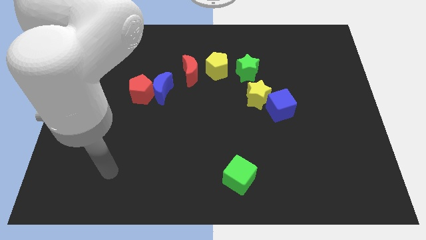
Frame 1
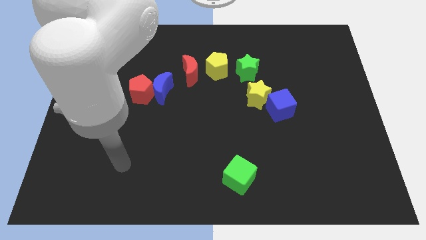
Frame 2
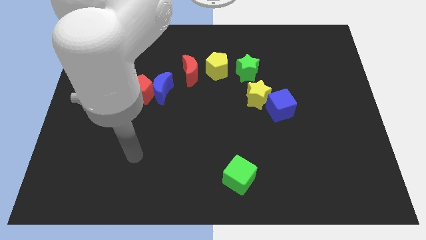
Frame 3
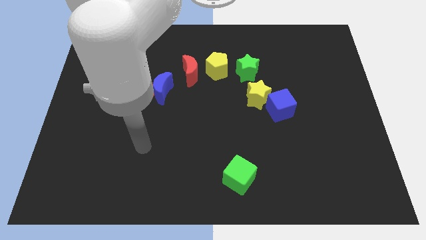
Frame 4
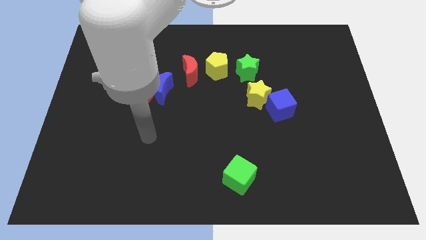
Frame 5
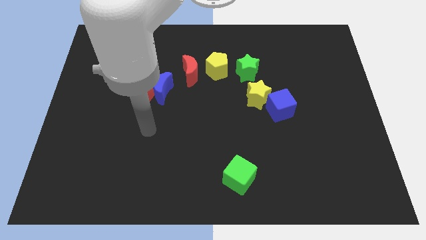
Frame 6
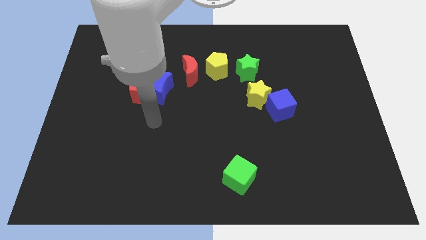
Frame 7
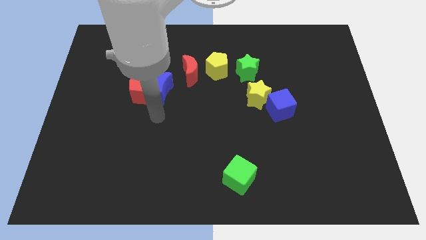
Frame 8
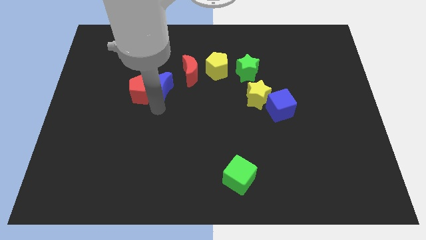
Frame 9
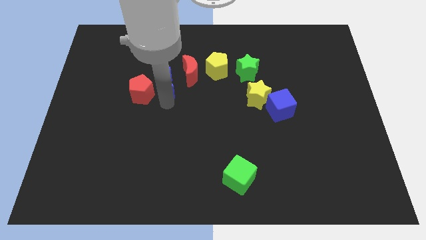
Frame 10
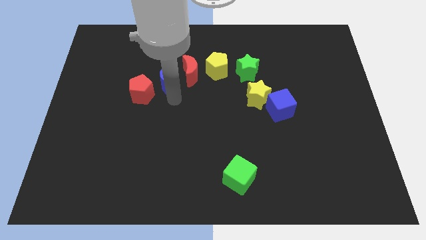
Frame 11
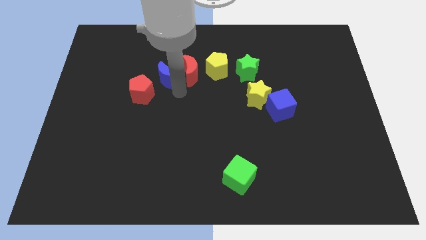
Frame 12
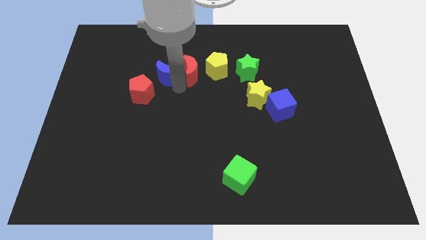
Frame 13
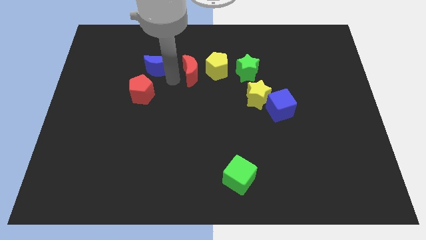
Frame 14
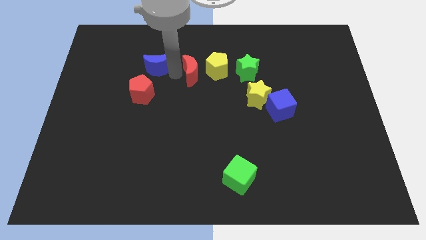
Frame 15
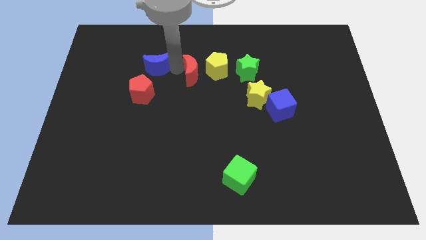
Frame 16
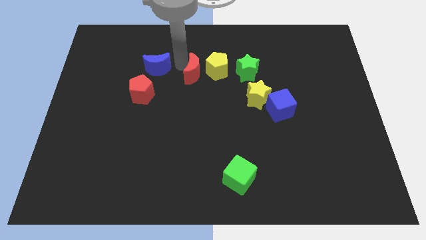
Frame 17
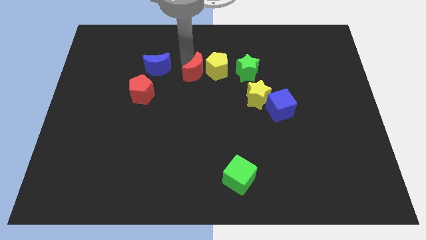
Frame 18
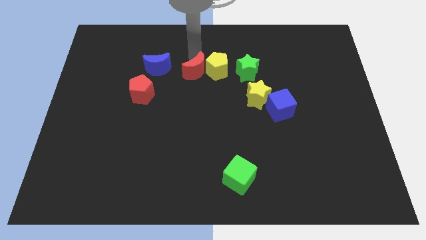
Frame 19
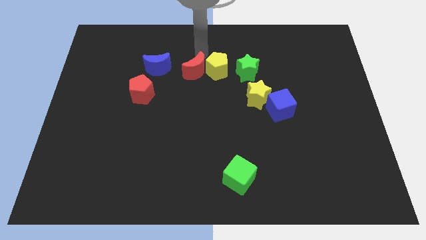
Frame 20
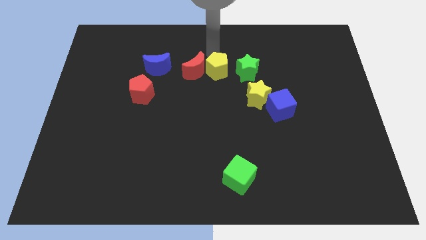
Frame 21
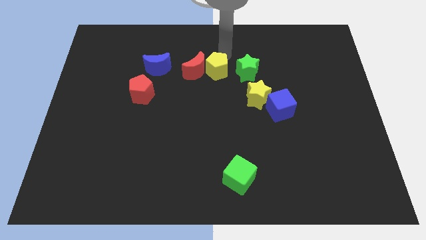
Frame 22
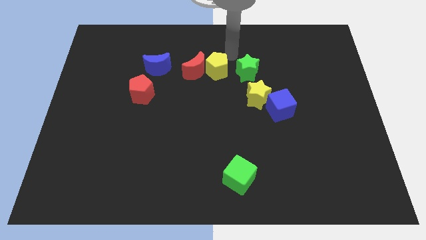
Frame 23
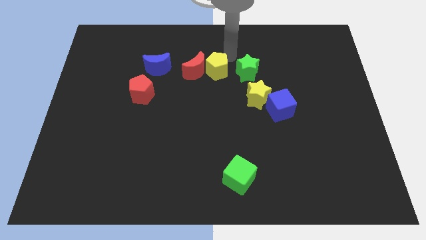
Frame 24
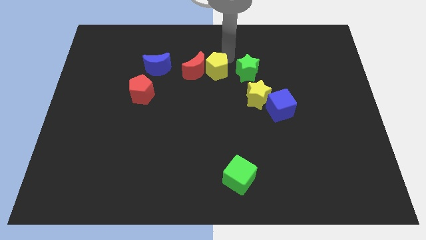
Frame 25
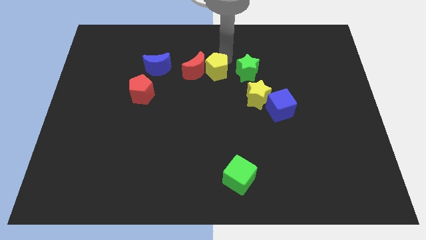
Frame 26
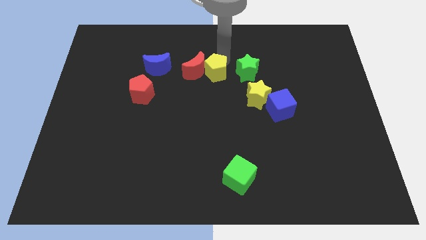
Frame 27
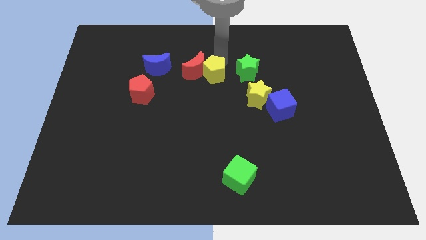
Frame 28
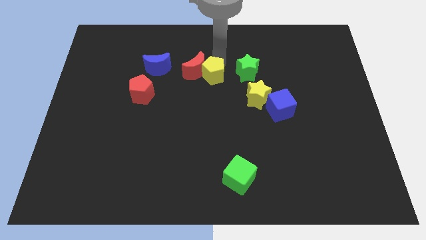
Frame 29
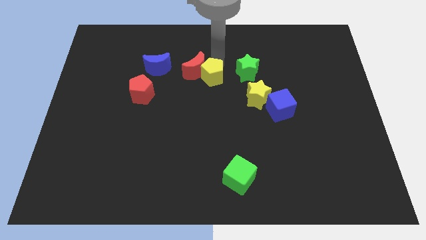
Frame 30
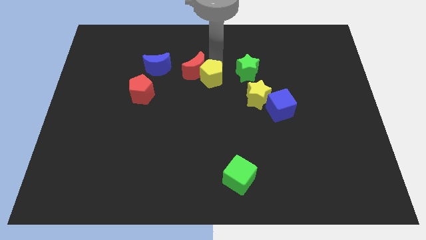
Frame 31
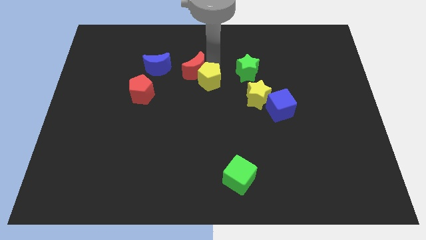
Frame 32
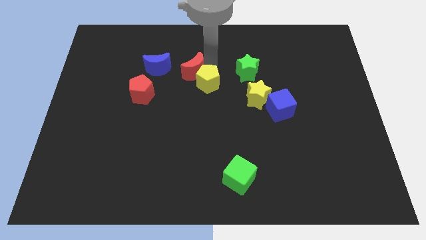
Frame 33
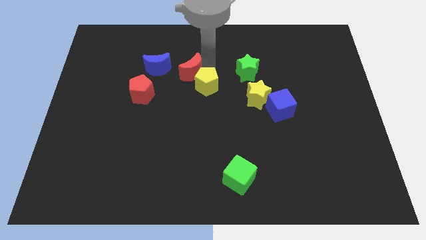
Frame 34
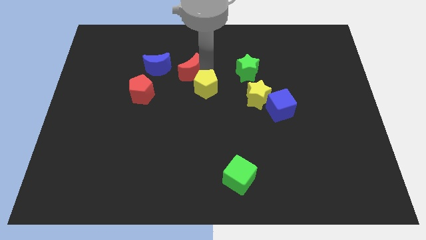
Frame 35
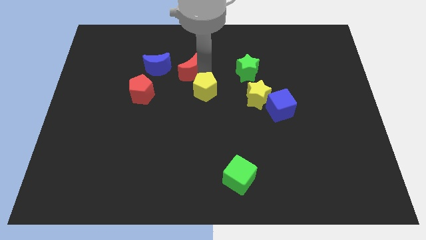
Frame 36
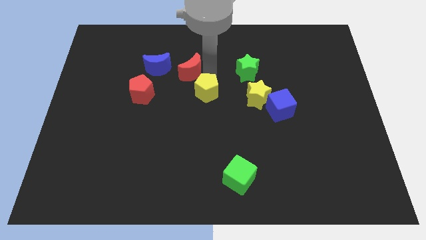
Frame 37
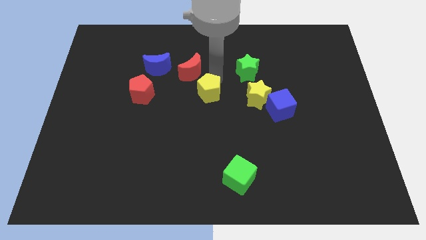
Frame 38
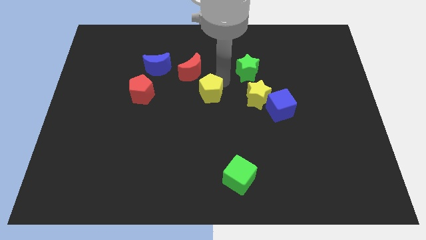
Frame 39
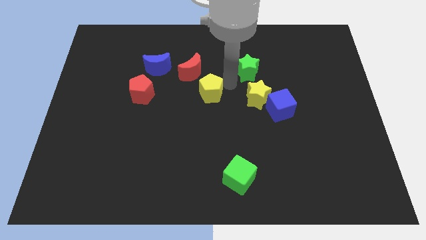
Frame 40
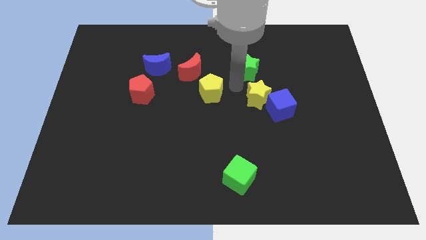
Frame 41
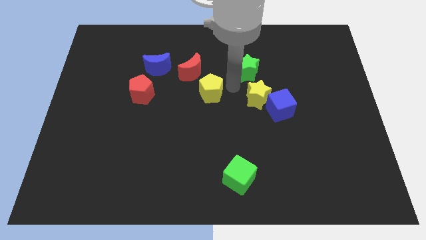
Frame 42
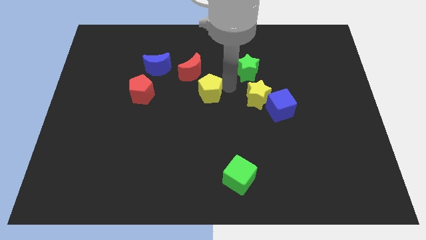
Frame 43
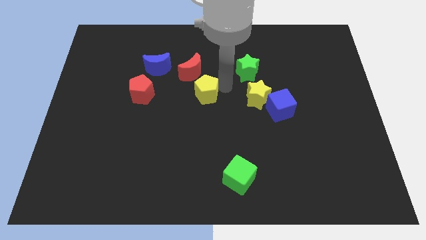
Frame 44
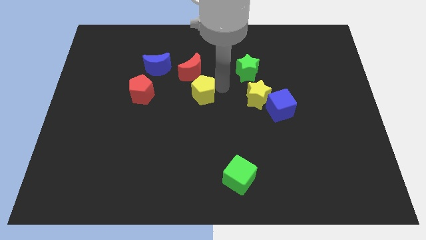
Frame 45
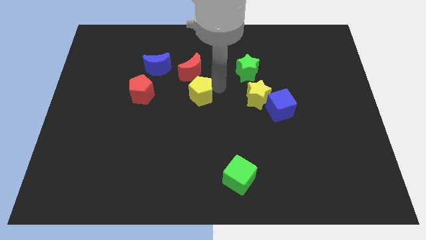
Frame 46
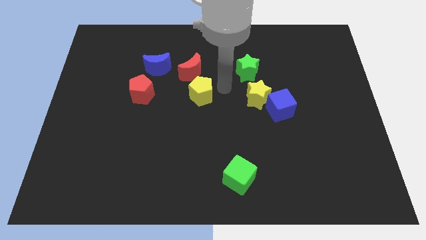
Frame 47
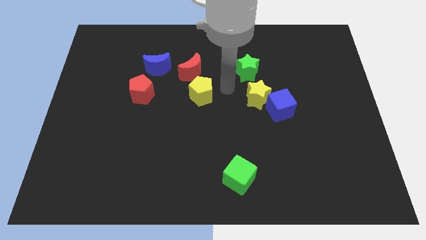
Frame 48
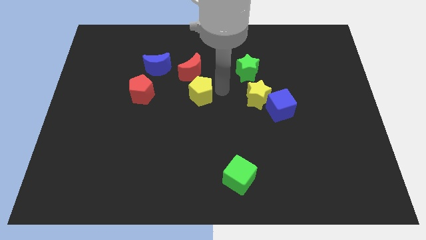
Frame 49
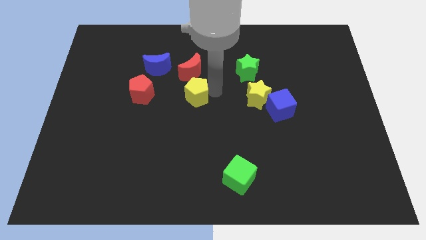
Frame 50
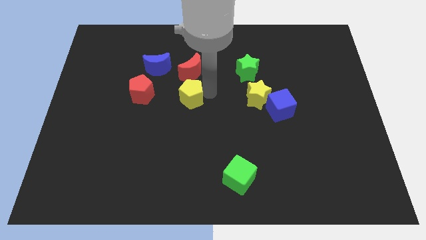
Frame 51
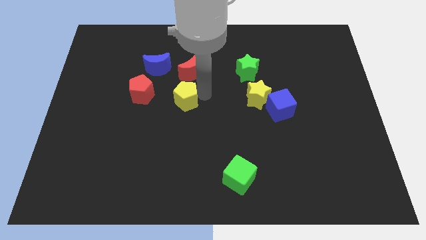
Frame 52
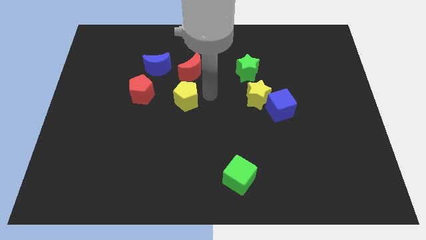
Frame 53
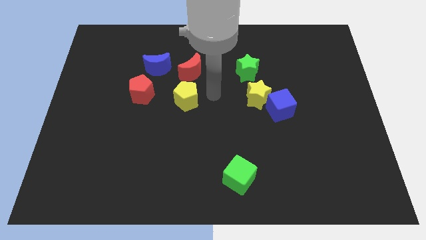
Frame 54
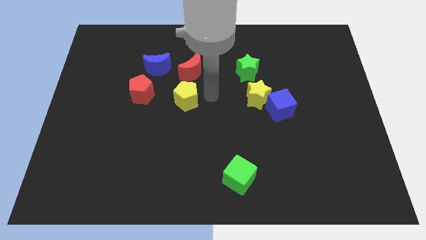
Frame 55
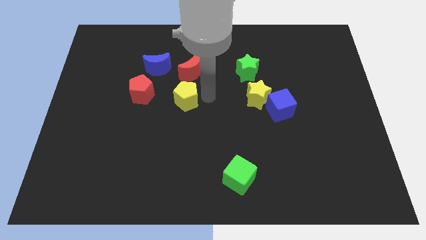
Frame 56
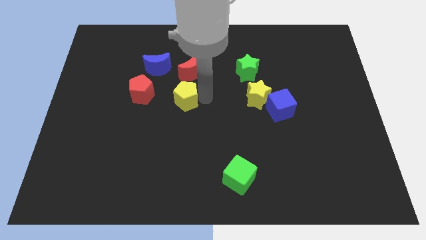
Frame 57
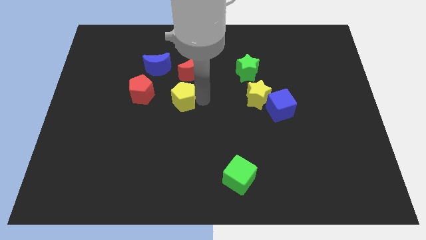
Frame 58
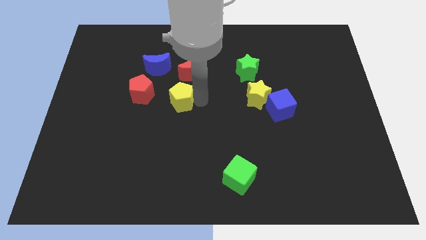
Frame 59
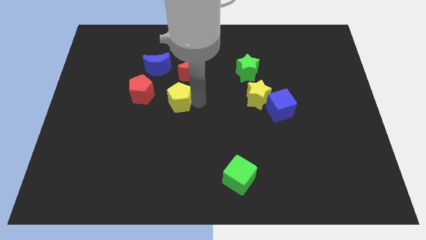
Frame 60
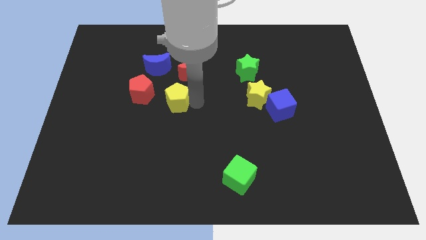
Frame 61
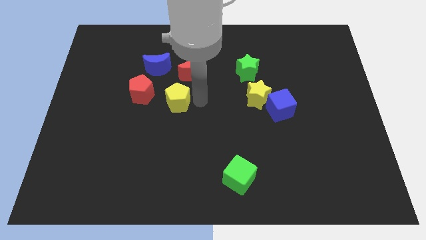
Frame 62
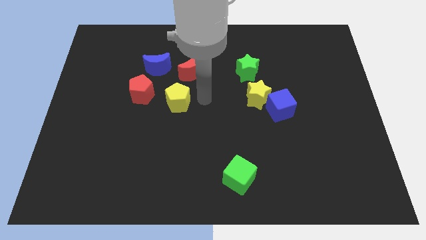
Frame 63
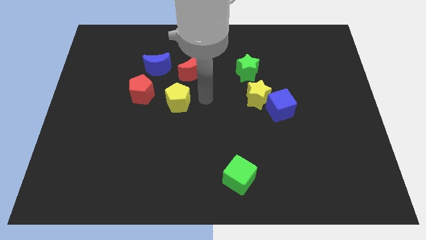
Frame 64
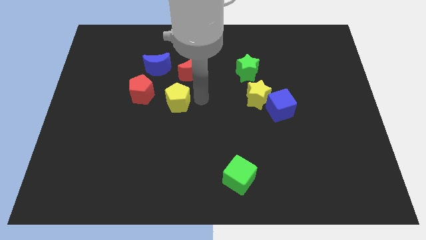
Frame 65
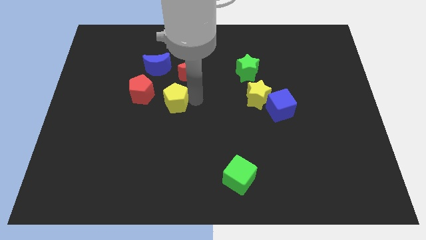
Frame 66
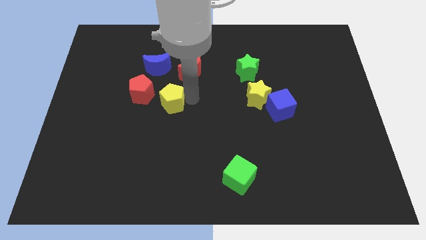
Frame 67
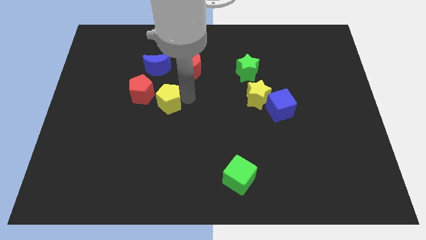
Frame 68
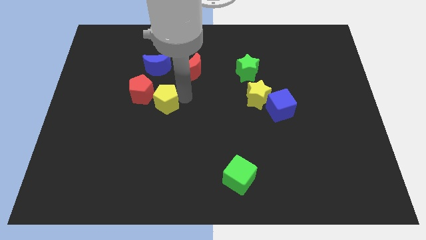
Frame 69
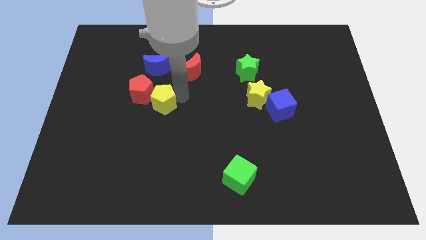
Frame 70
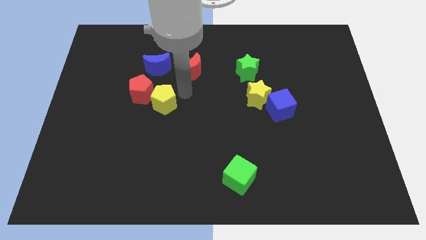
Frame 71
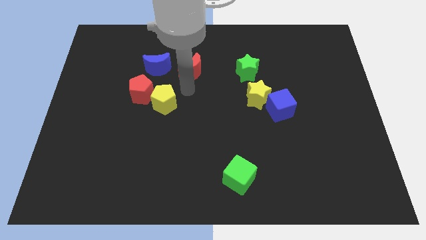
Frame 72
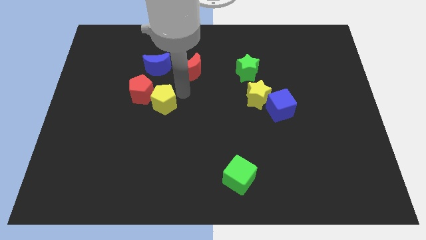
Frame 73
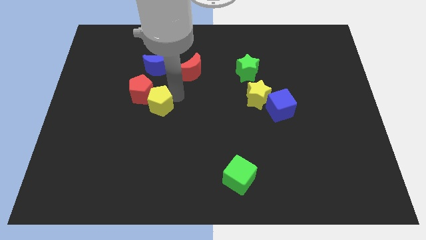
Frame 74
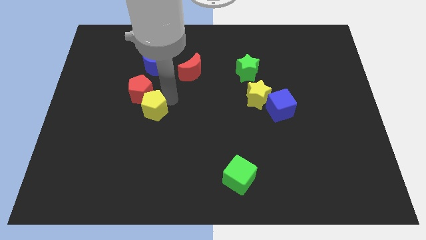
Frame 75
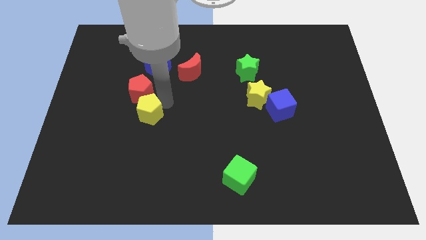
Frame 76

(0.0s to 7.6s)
slide the yellow pentagon downwards and left

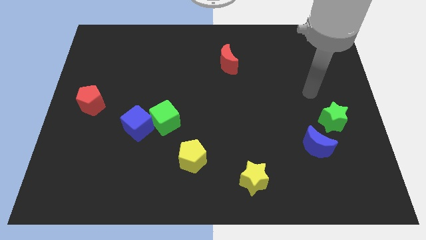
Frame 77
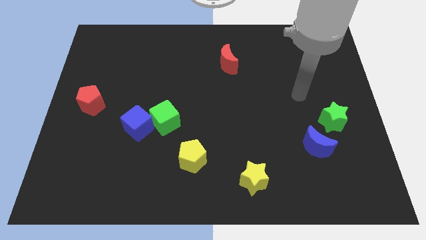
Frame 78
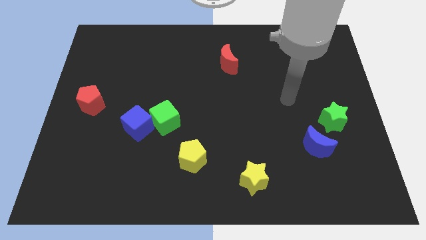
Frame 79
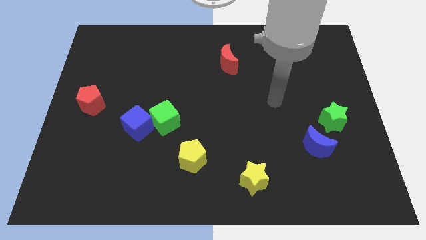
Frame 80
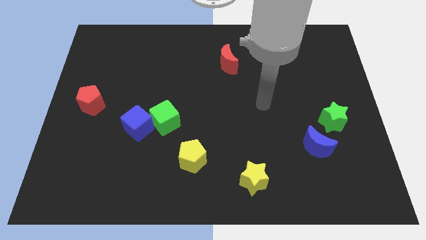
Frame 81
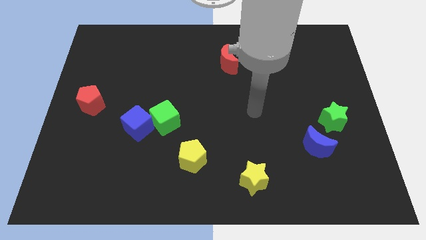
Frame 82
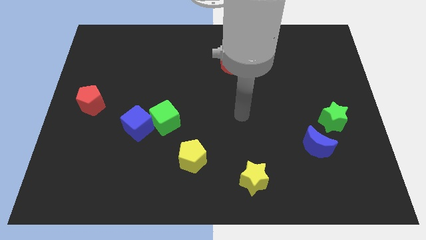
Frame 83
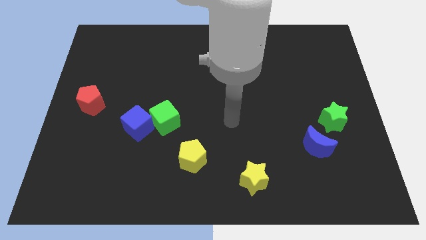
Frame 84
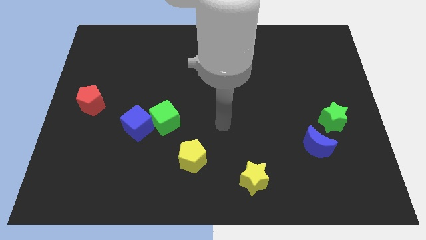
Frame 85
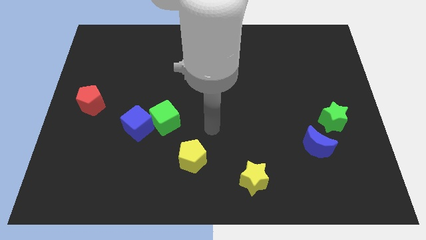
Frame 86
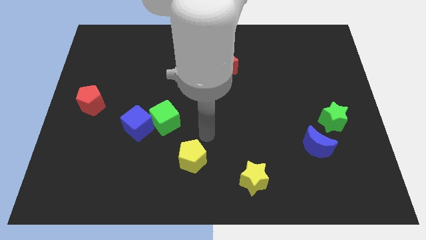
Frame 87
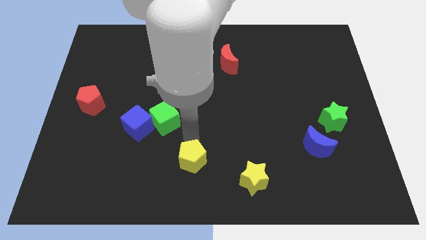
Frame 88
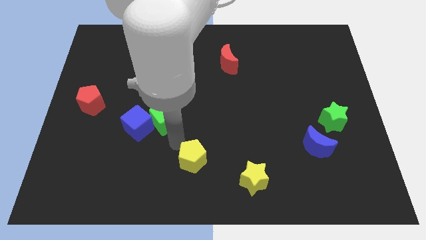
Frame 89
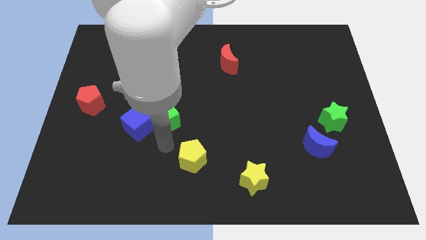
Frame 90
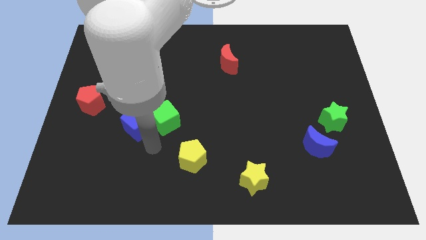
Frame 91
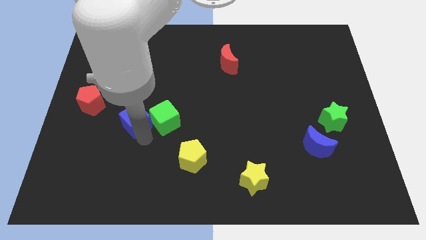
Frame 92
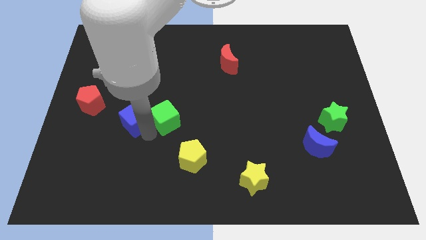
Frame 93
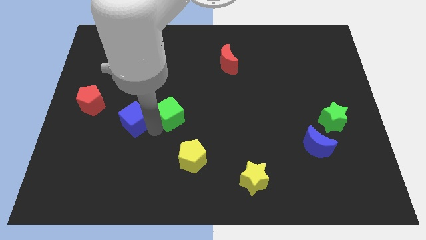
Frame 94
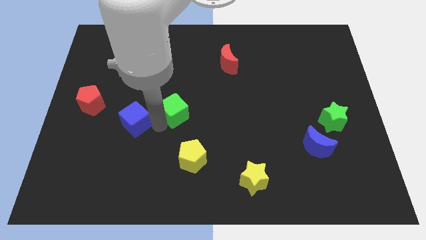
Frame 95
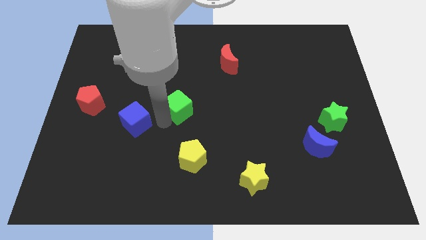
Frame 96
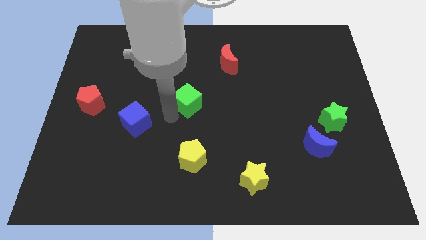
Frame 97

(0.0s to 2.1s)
move the green cube diagonally up and to the right slightly
